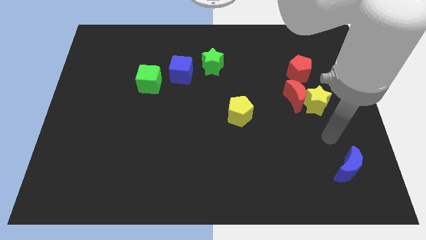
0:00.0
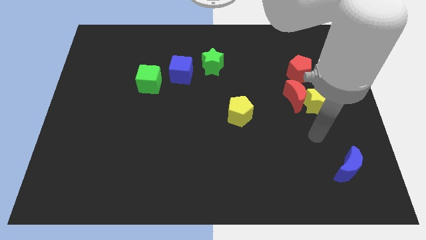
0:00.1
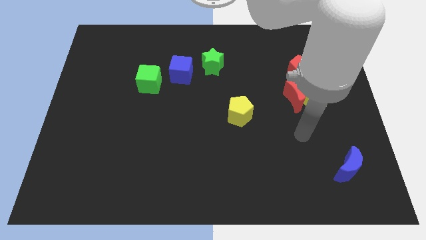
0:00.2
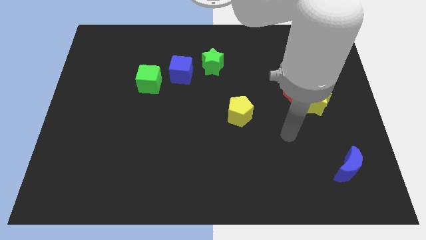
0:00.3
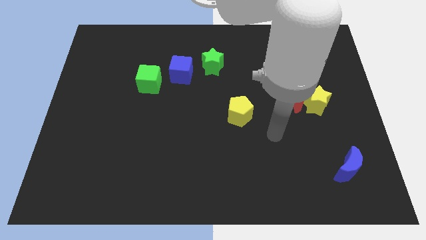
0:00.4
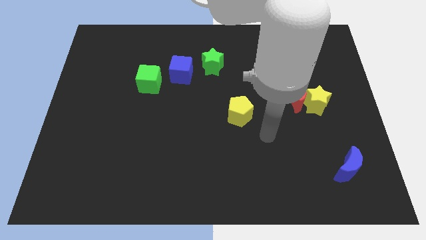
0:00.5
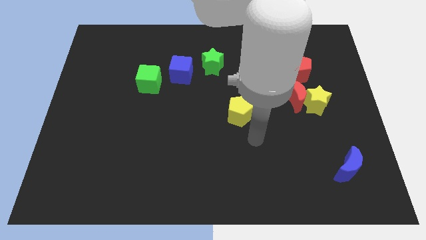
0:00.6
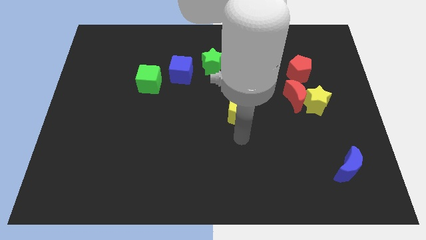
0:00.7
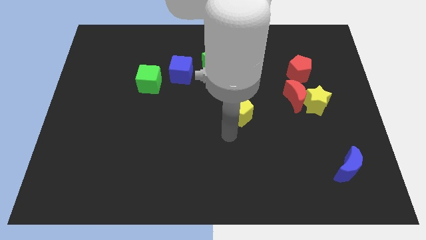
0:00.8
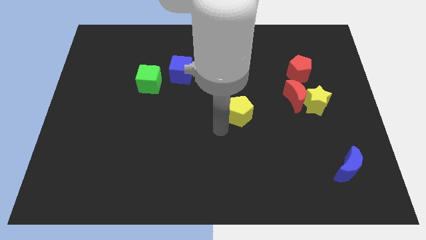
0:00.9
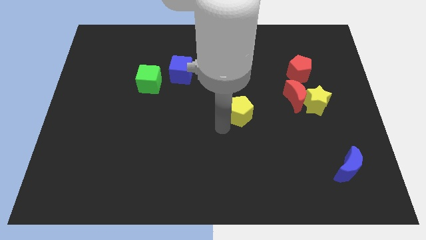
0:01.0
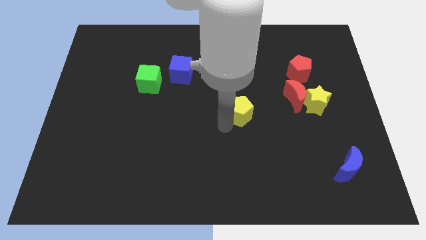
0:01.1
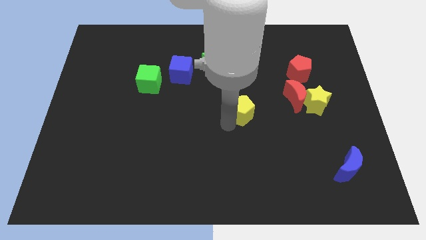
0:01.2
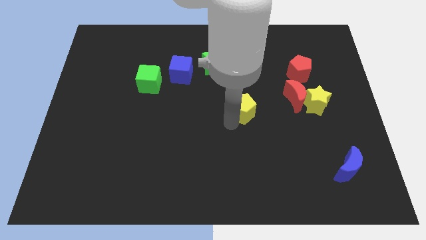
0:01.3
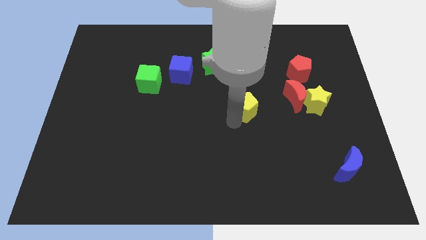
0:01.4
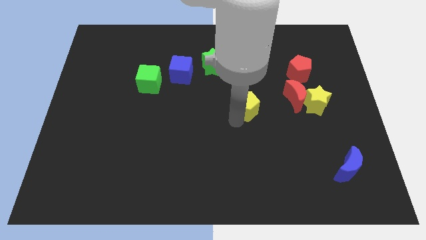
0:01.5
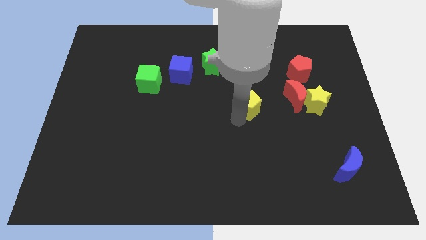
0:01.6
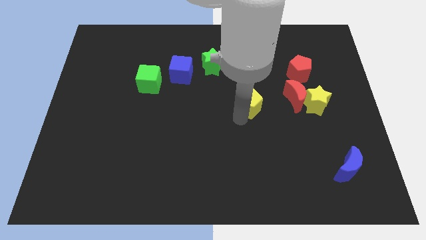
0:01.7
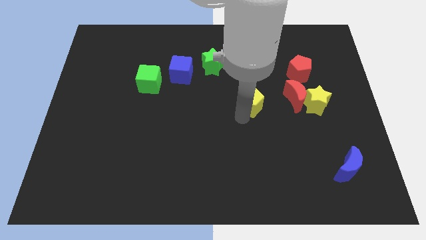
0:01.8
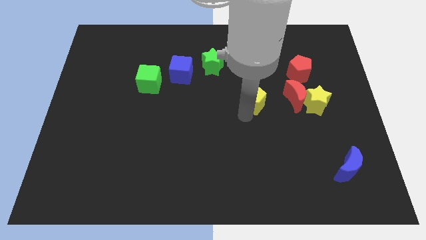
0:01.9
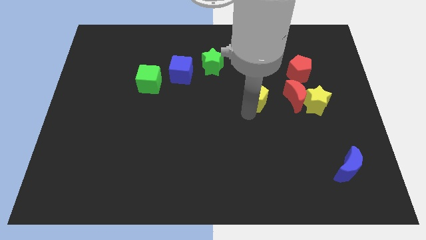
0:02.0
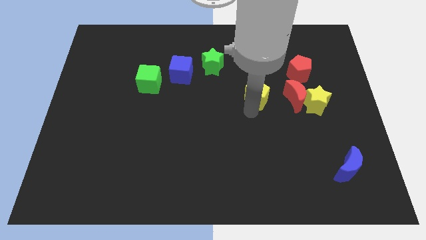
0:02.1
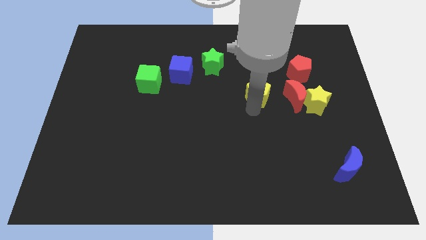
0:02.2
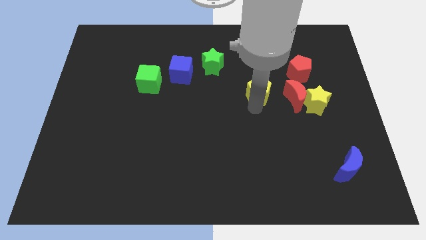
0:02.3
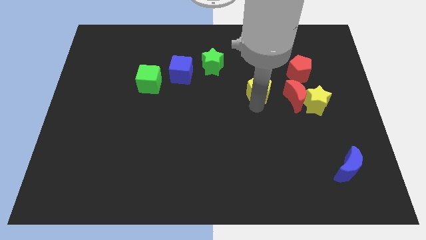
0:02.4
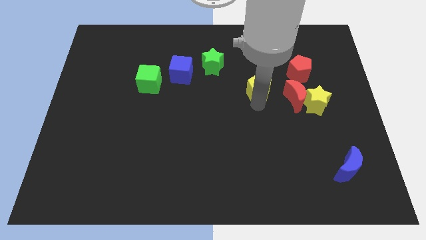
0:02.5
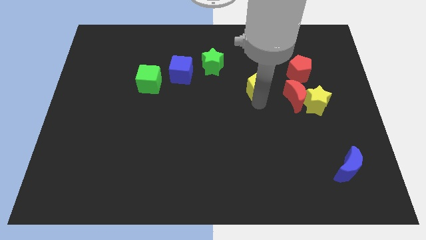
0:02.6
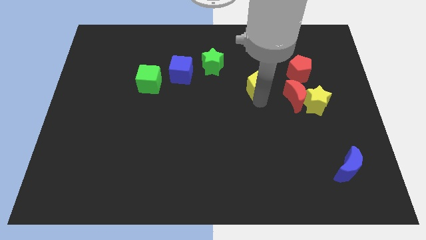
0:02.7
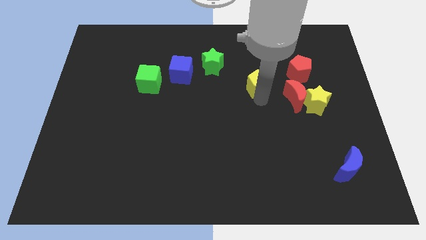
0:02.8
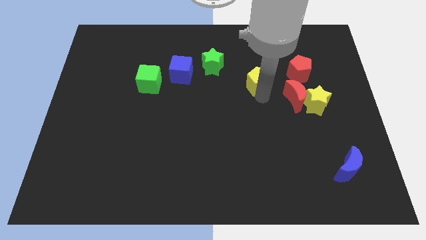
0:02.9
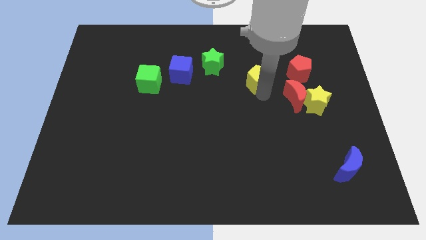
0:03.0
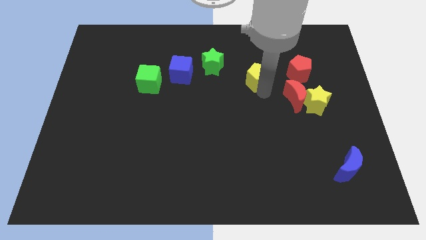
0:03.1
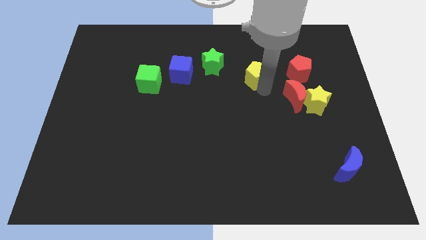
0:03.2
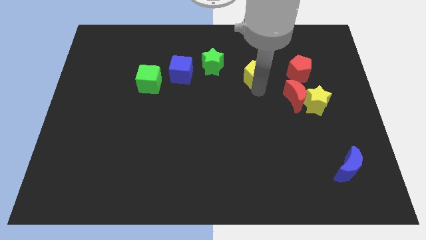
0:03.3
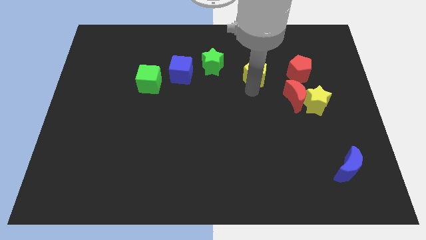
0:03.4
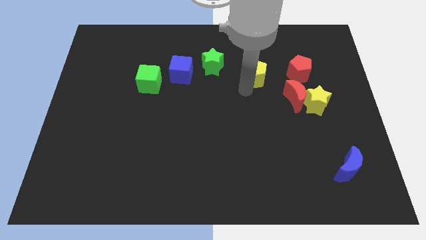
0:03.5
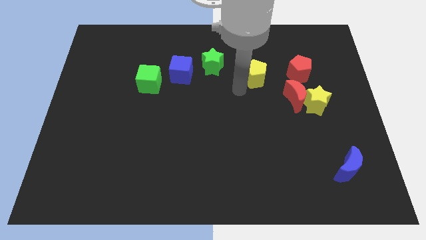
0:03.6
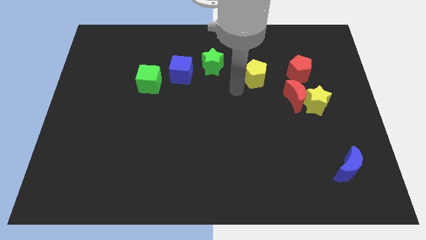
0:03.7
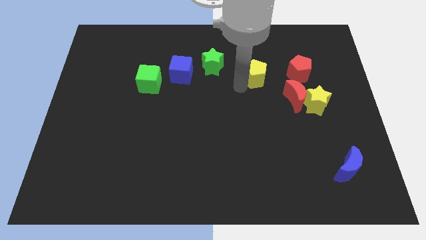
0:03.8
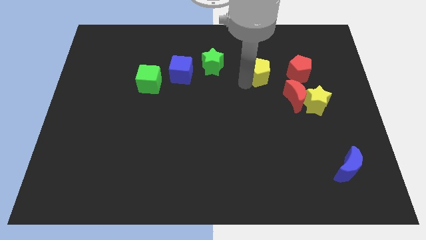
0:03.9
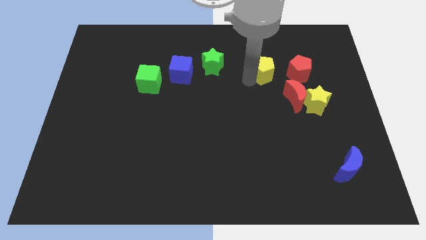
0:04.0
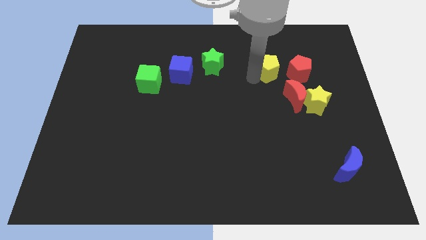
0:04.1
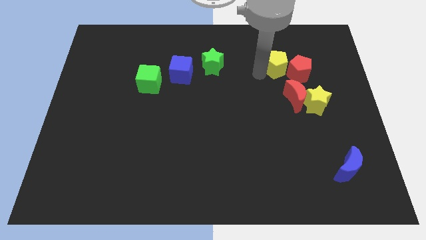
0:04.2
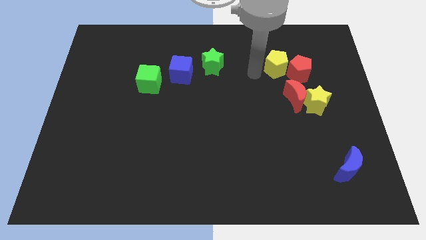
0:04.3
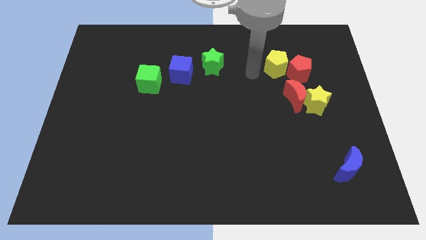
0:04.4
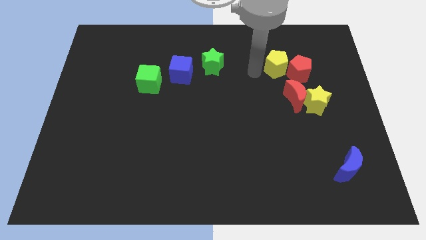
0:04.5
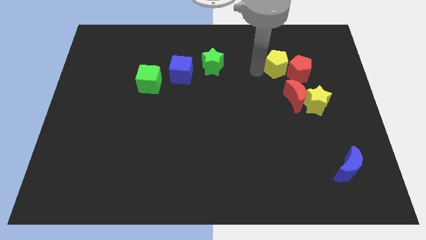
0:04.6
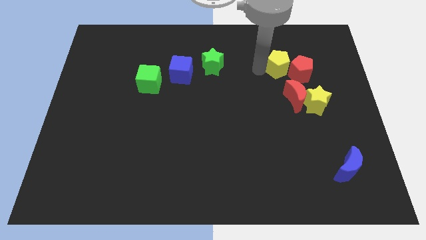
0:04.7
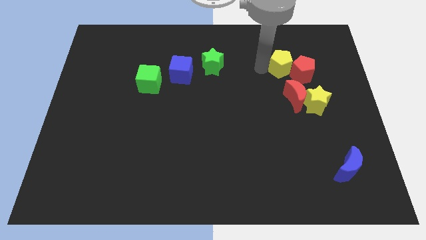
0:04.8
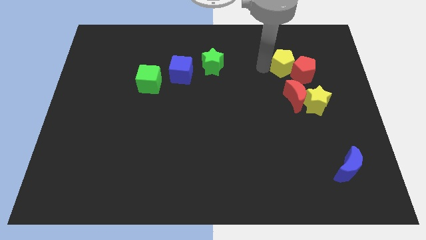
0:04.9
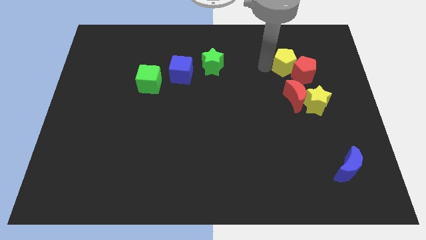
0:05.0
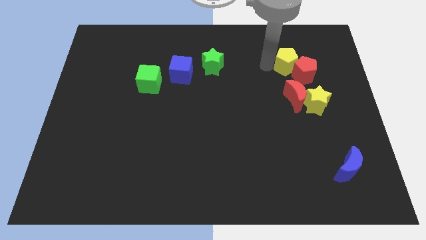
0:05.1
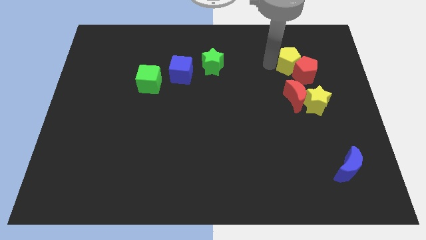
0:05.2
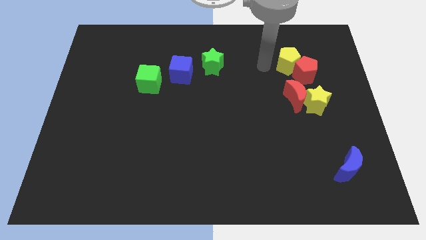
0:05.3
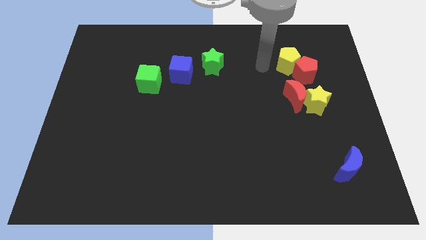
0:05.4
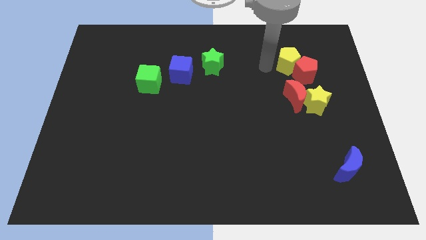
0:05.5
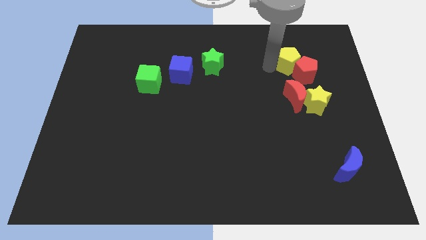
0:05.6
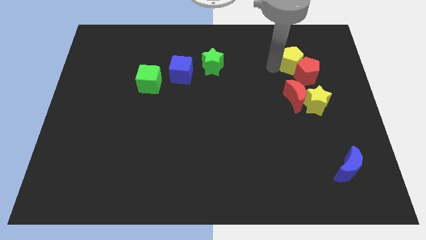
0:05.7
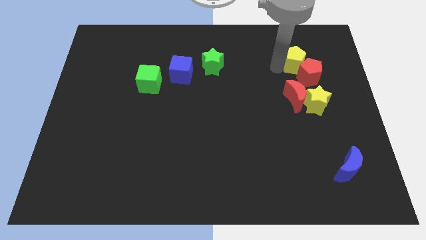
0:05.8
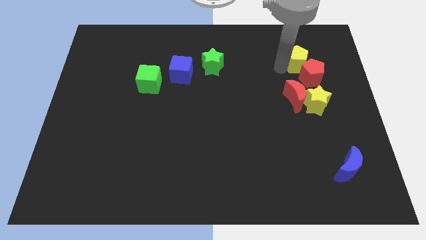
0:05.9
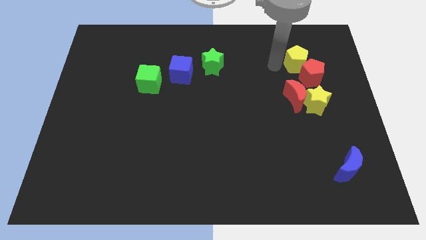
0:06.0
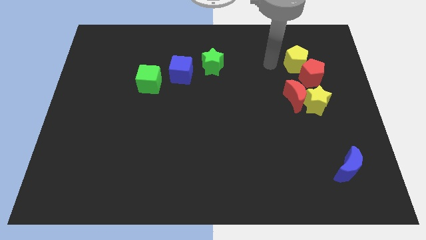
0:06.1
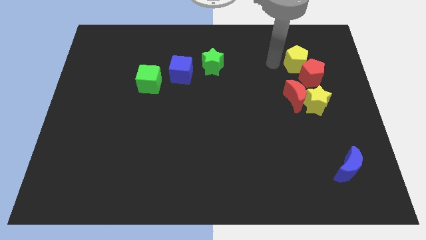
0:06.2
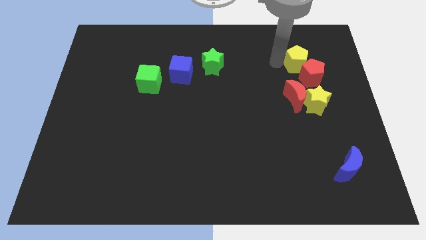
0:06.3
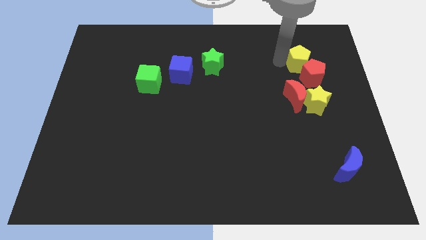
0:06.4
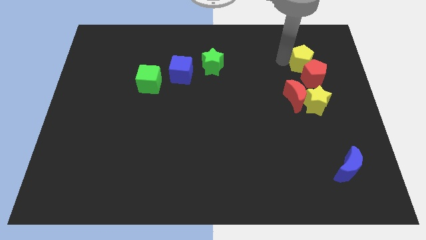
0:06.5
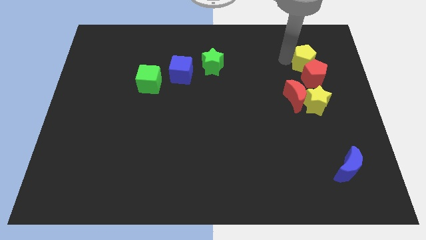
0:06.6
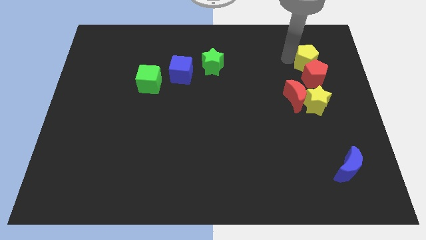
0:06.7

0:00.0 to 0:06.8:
move the yellow pentagon to the top right side of the red pentagon

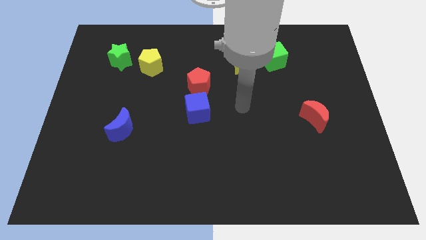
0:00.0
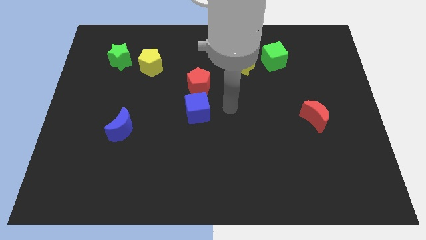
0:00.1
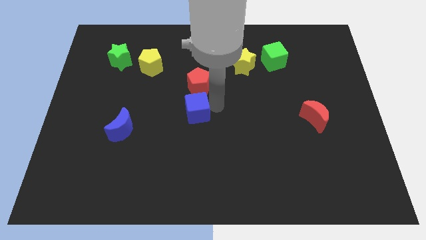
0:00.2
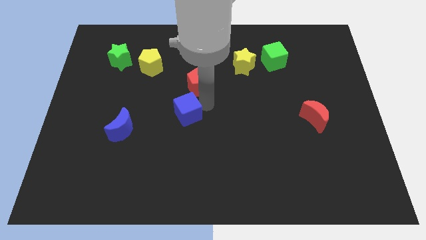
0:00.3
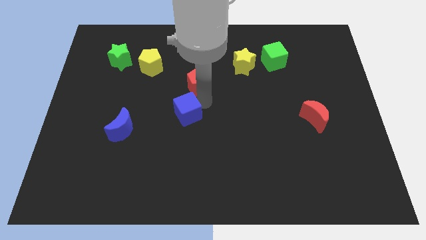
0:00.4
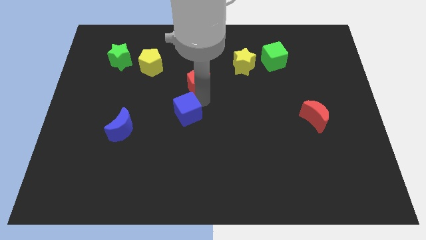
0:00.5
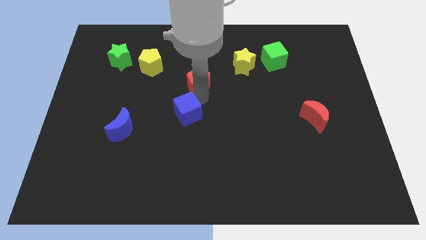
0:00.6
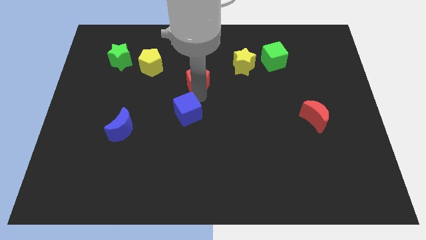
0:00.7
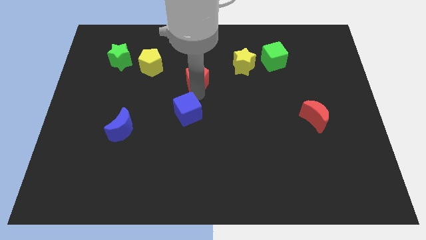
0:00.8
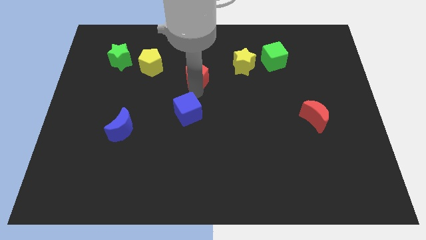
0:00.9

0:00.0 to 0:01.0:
put the red pentagon to the right side of the yellow pentagon

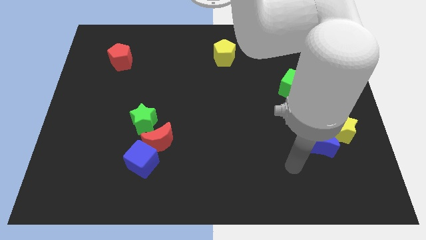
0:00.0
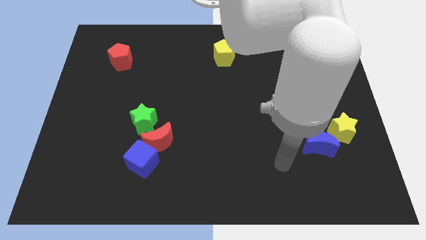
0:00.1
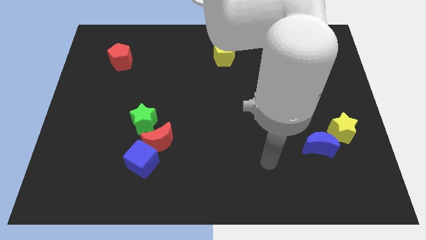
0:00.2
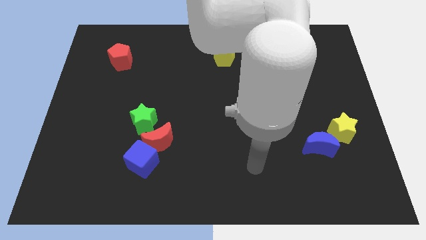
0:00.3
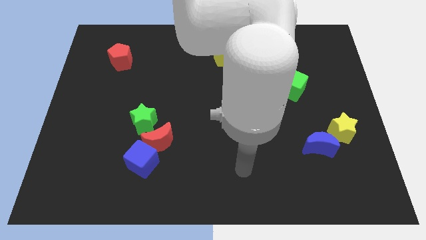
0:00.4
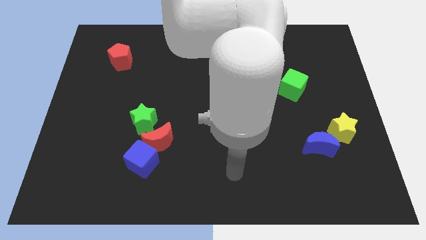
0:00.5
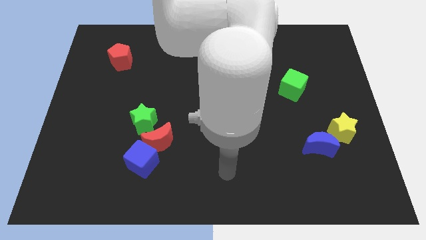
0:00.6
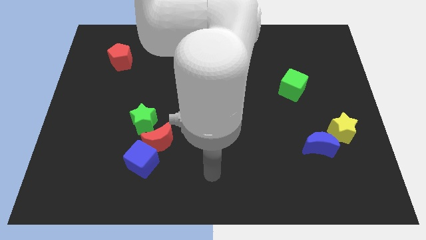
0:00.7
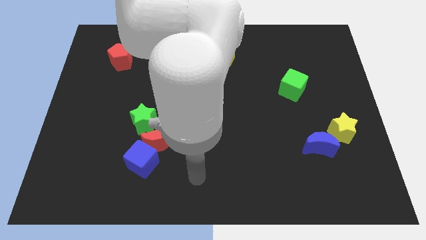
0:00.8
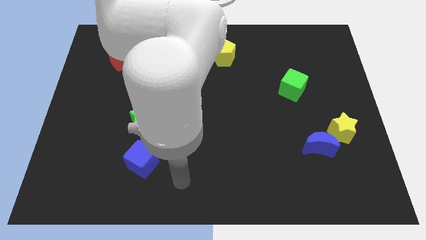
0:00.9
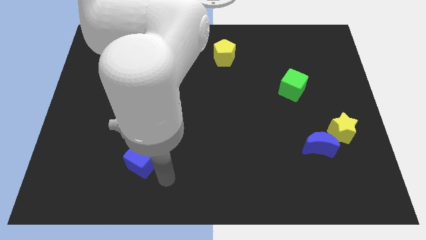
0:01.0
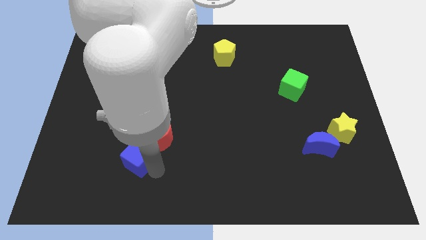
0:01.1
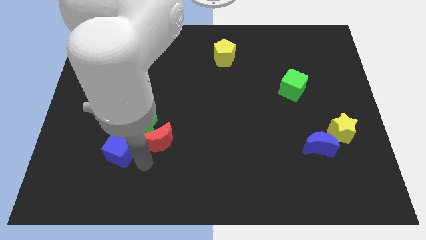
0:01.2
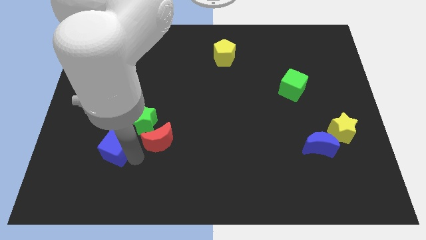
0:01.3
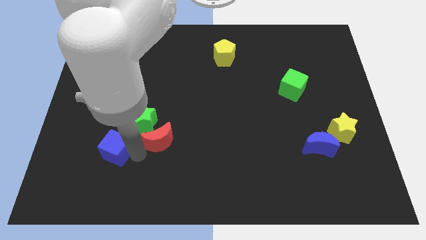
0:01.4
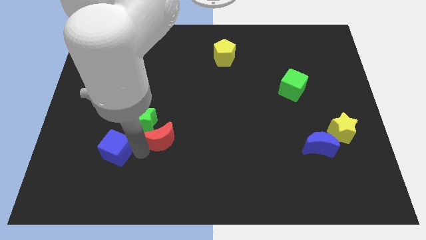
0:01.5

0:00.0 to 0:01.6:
put the red moon right of the green star
